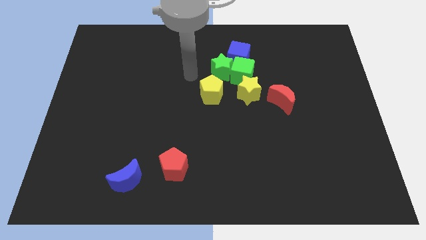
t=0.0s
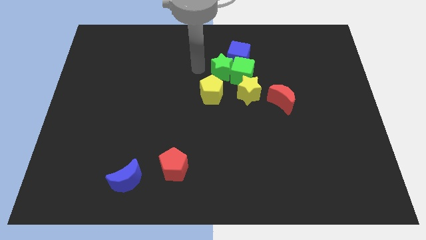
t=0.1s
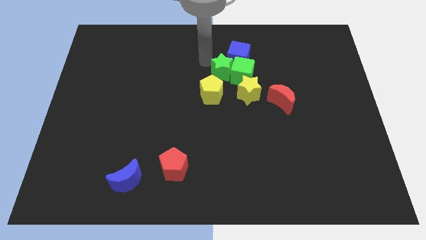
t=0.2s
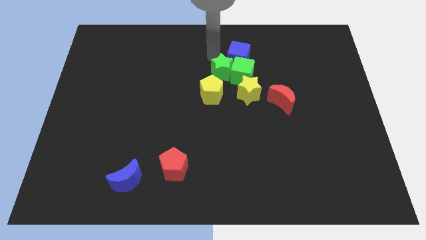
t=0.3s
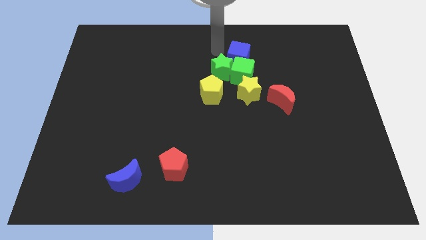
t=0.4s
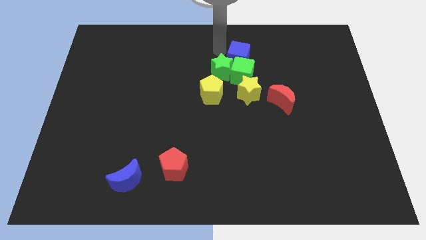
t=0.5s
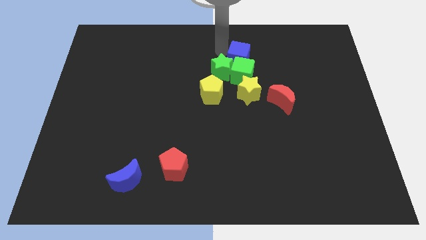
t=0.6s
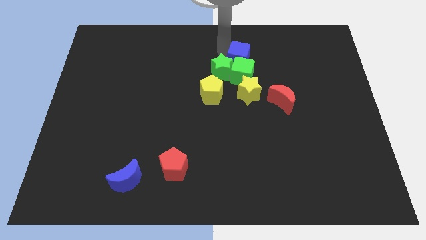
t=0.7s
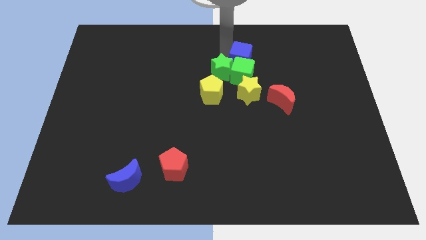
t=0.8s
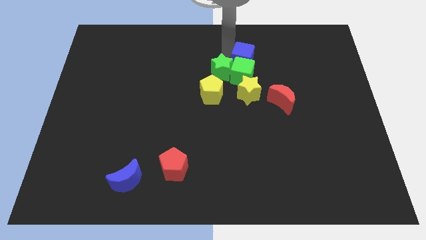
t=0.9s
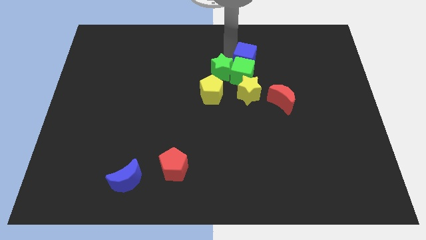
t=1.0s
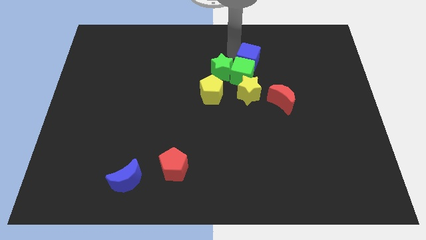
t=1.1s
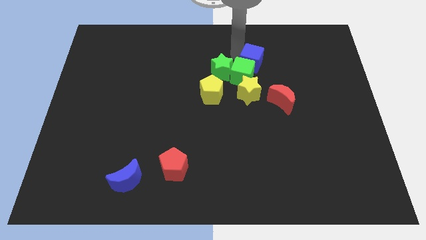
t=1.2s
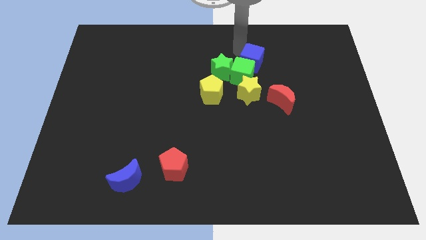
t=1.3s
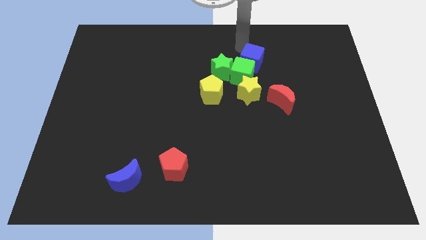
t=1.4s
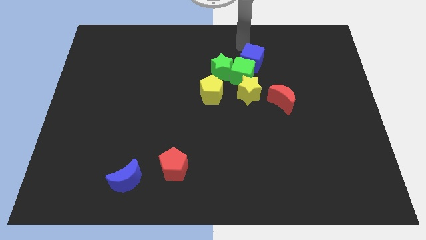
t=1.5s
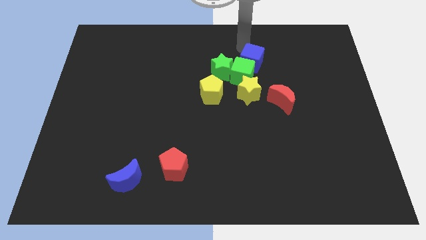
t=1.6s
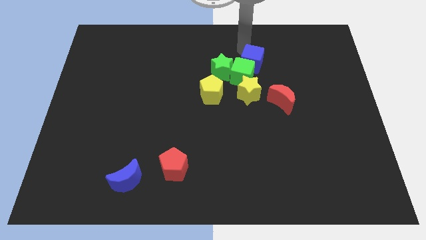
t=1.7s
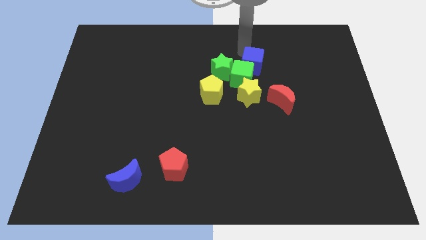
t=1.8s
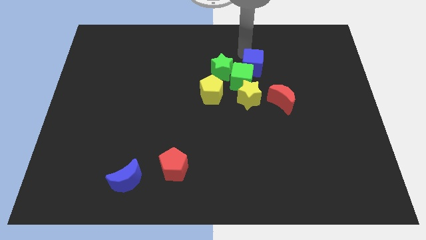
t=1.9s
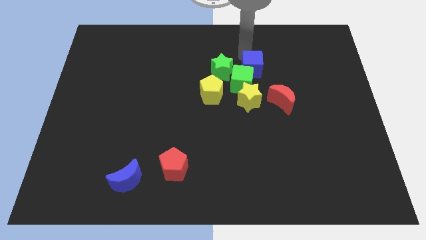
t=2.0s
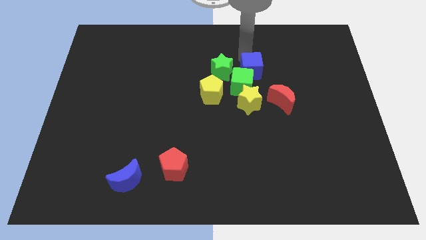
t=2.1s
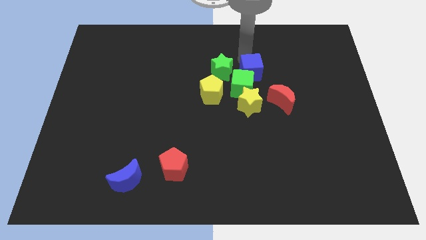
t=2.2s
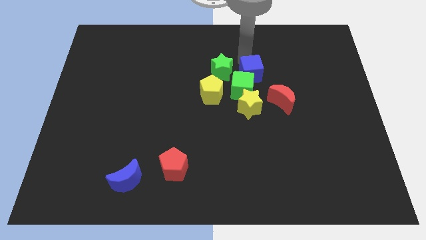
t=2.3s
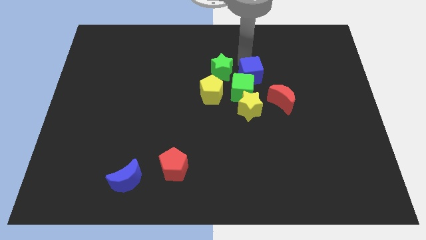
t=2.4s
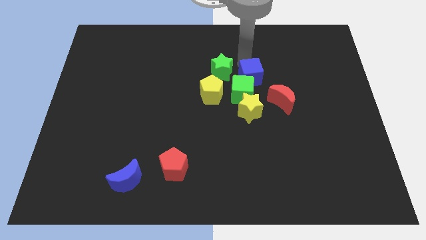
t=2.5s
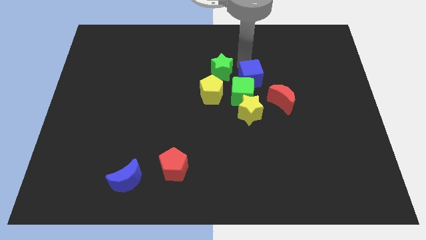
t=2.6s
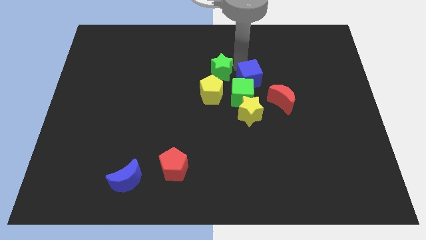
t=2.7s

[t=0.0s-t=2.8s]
slightly slide the blue cube downwards

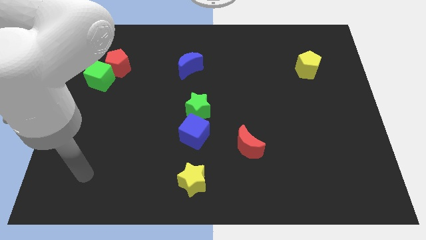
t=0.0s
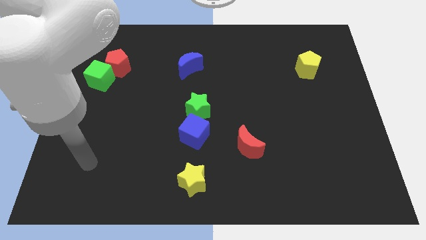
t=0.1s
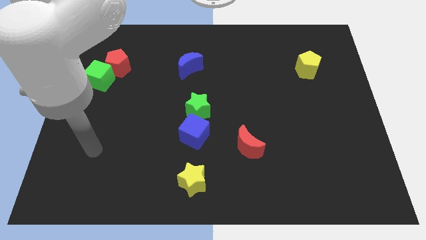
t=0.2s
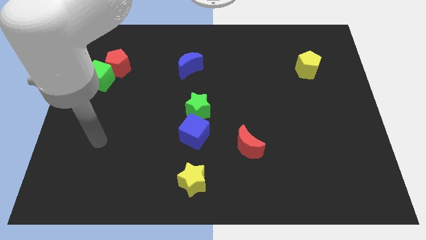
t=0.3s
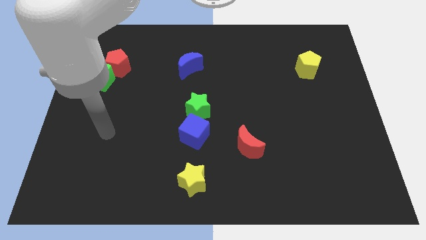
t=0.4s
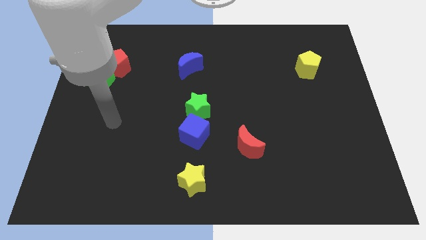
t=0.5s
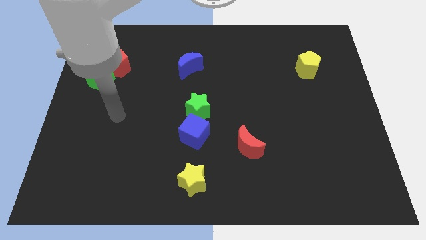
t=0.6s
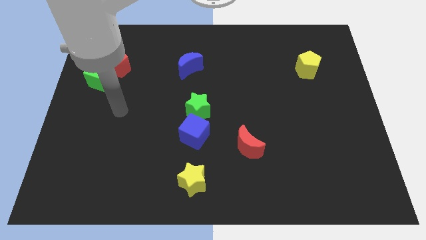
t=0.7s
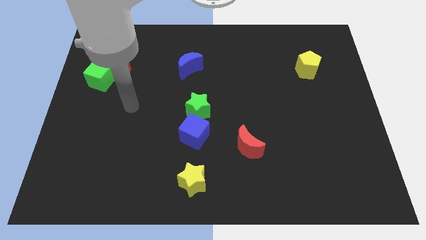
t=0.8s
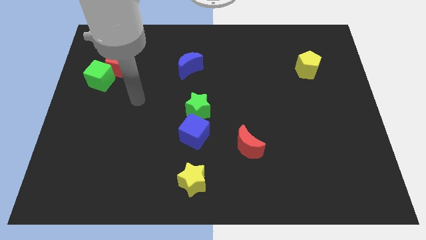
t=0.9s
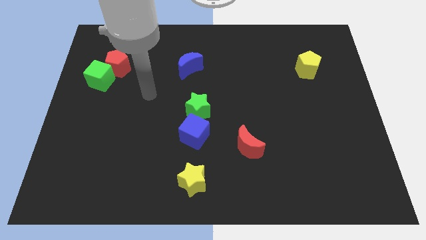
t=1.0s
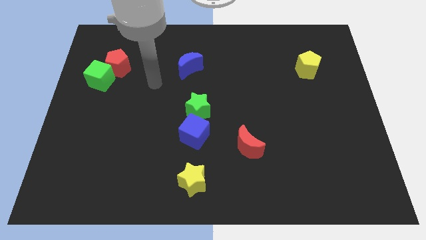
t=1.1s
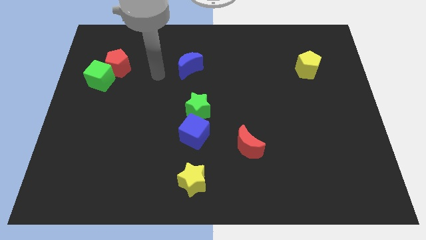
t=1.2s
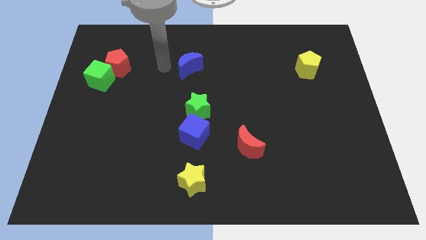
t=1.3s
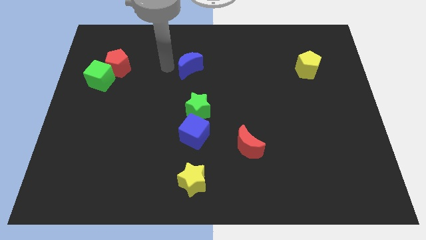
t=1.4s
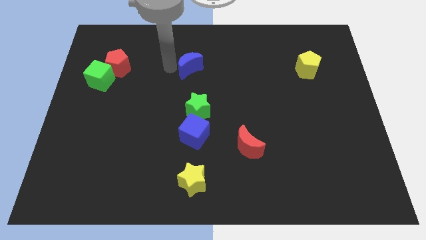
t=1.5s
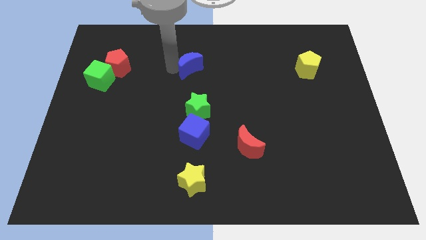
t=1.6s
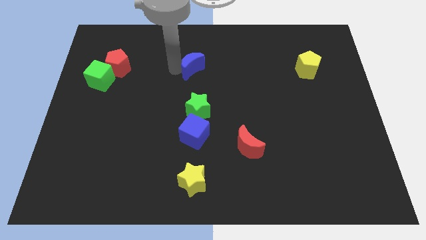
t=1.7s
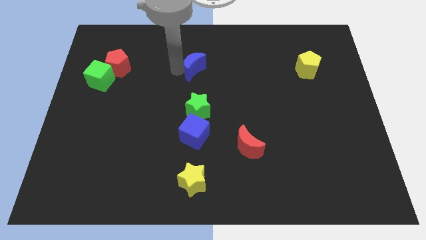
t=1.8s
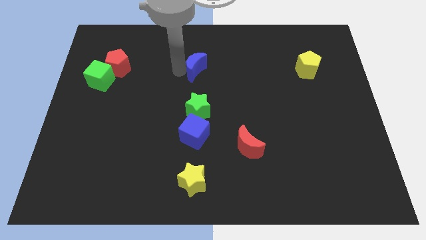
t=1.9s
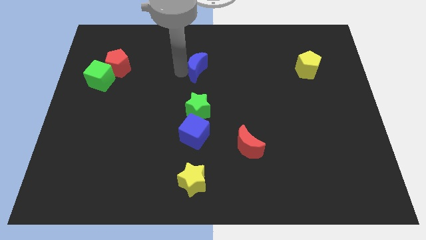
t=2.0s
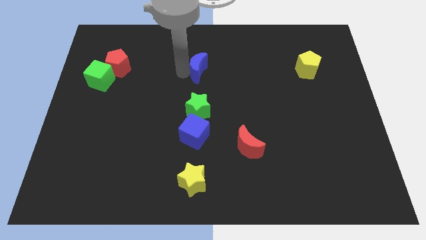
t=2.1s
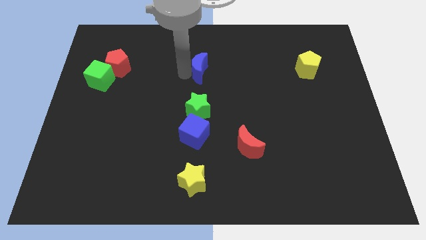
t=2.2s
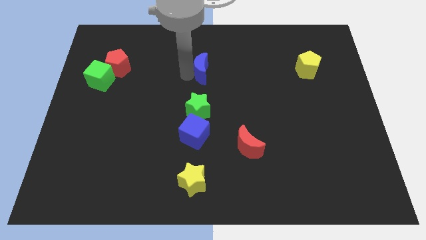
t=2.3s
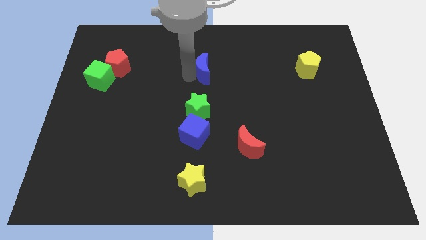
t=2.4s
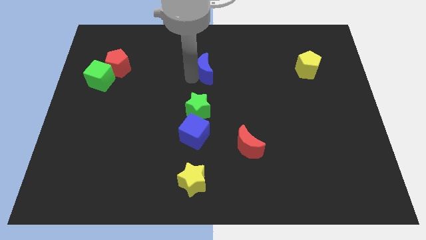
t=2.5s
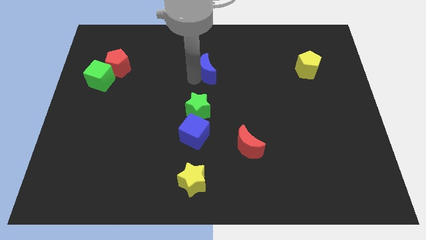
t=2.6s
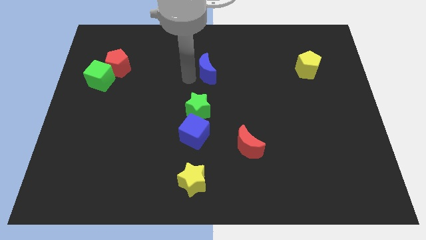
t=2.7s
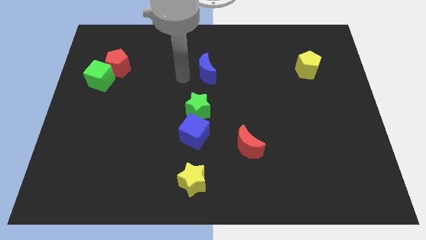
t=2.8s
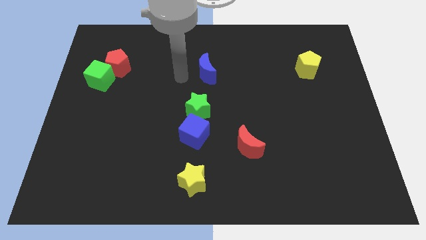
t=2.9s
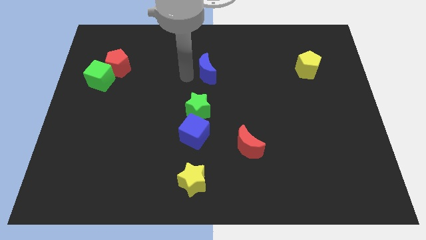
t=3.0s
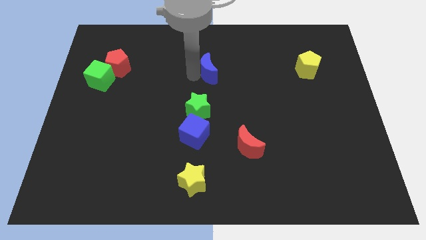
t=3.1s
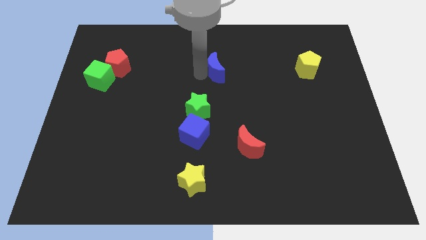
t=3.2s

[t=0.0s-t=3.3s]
move the blue moon a little bit right

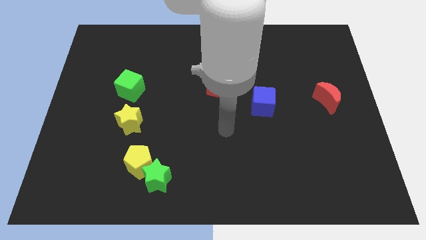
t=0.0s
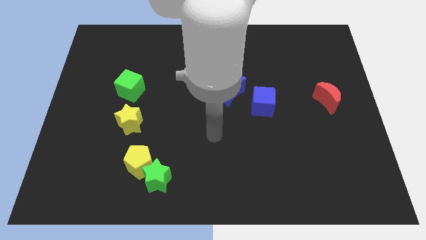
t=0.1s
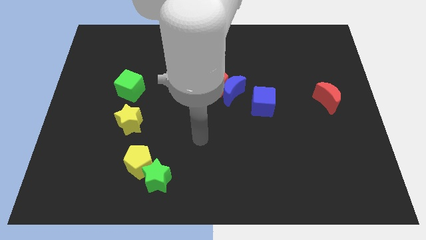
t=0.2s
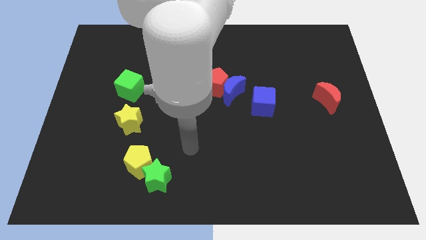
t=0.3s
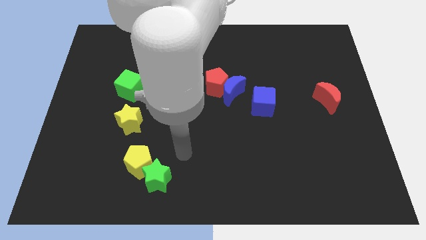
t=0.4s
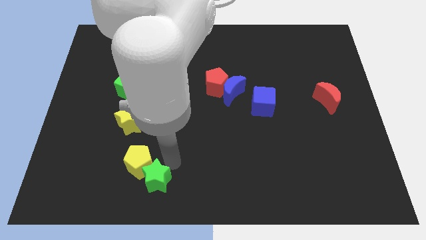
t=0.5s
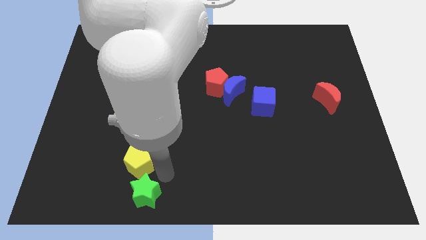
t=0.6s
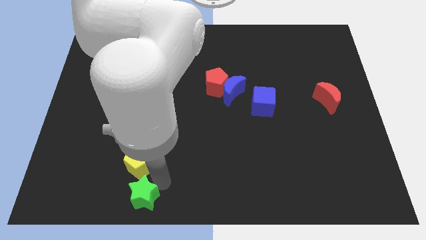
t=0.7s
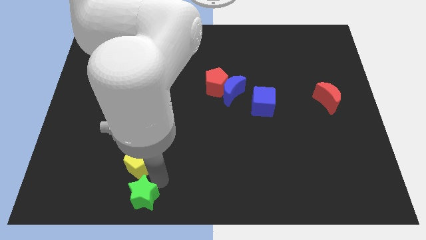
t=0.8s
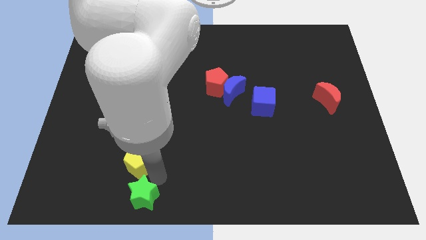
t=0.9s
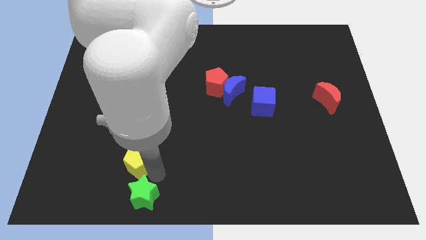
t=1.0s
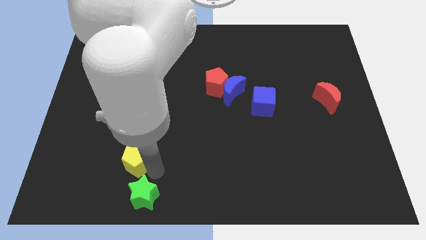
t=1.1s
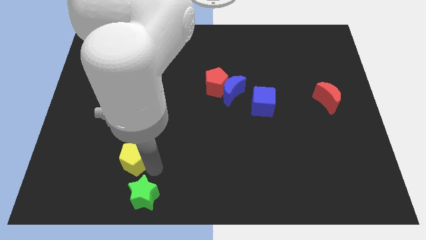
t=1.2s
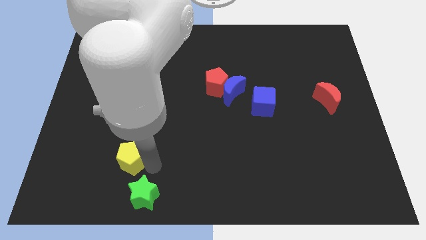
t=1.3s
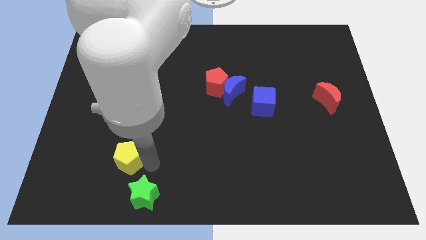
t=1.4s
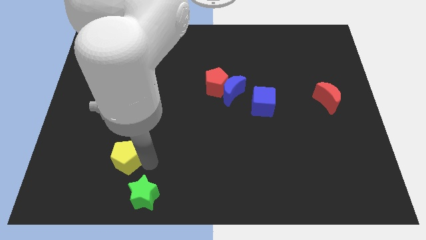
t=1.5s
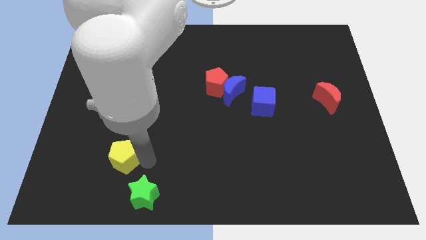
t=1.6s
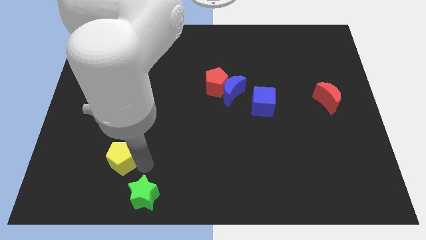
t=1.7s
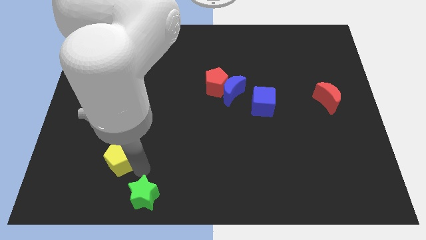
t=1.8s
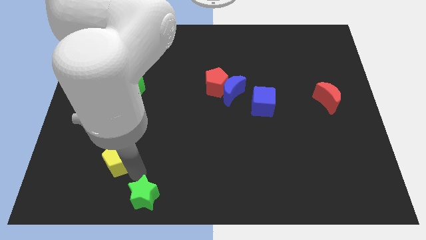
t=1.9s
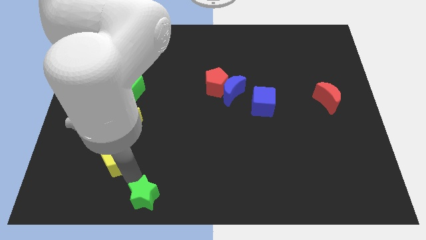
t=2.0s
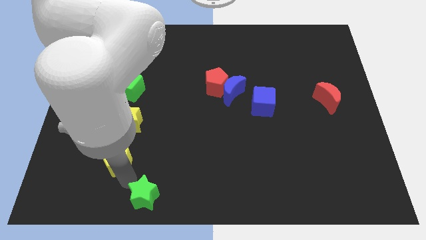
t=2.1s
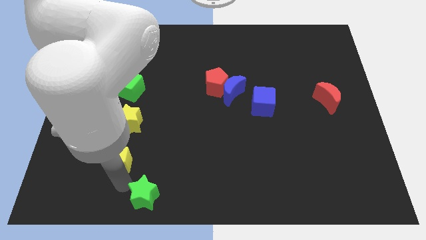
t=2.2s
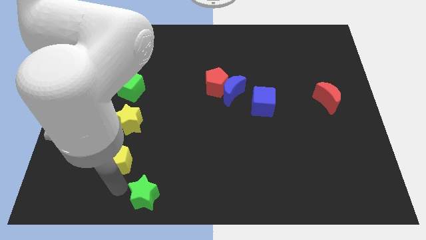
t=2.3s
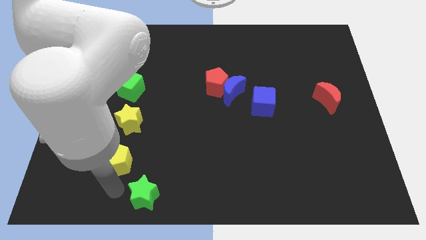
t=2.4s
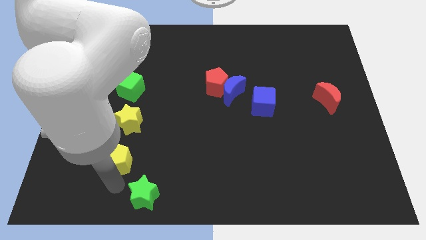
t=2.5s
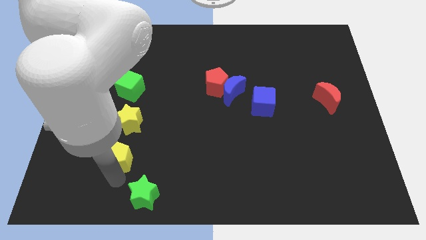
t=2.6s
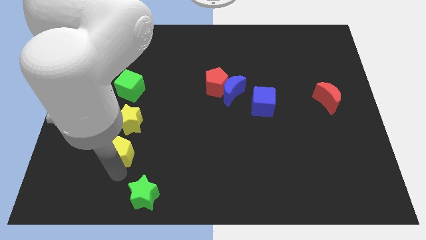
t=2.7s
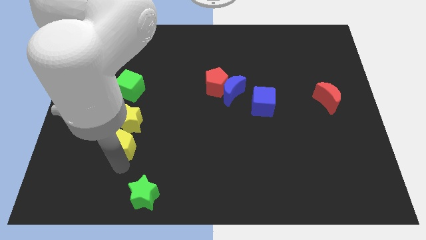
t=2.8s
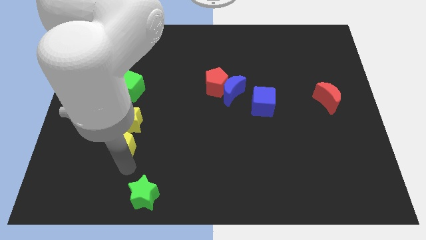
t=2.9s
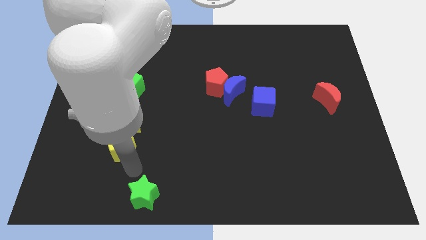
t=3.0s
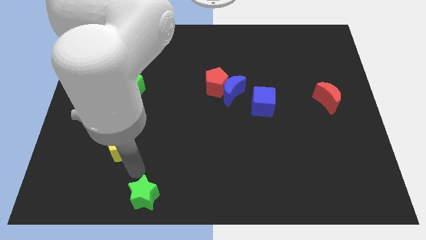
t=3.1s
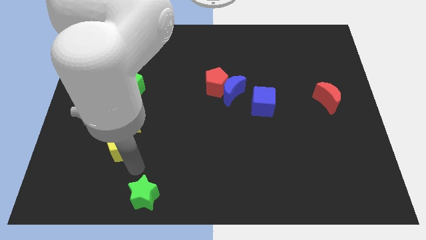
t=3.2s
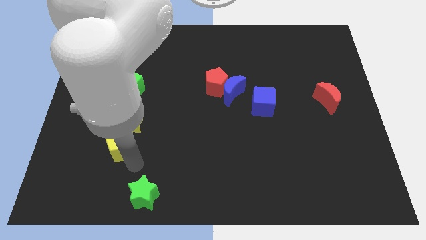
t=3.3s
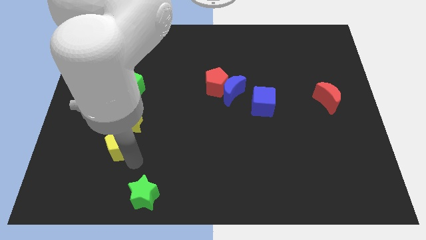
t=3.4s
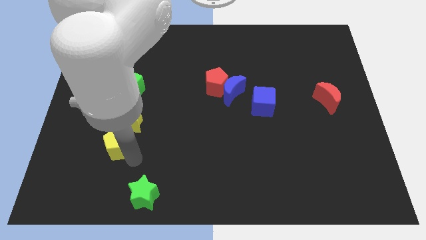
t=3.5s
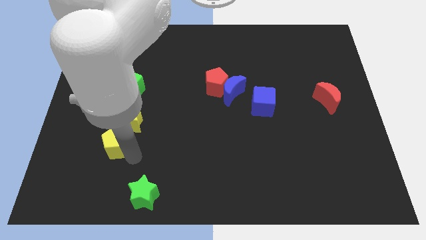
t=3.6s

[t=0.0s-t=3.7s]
slightly move the yellow pentagon upwards and to the left diagonally
